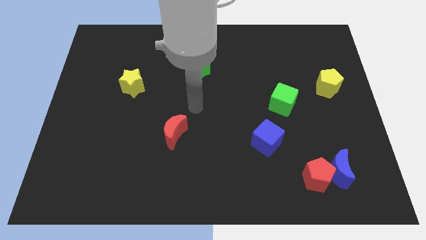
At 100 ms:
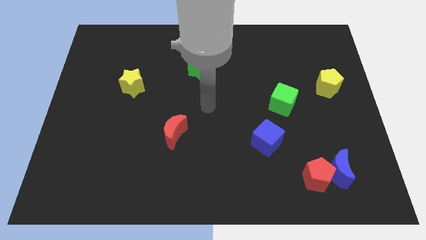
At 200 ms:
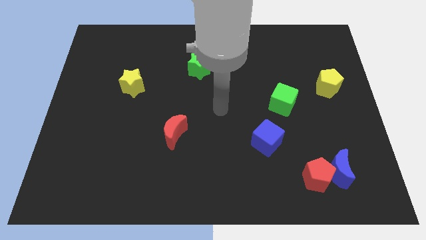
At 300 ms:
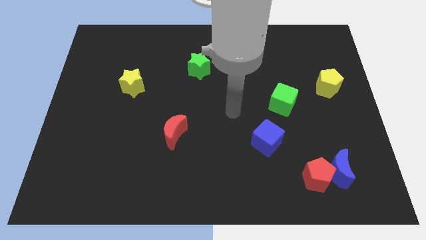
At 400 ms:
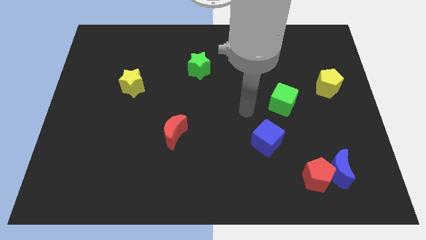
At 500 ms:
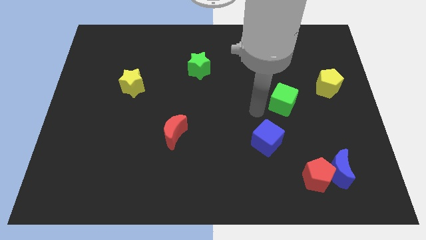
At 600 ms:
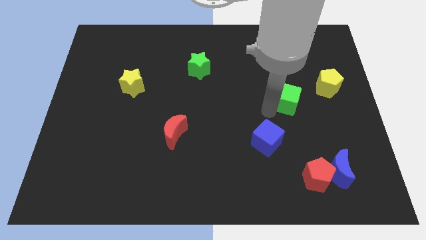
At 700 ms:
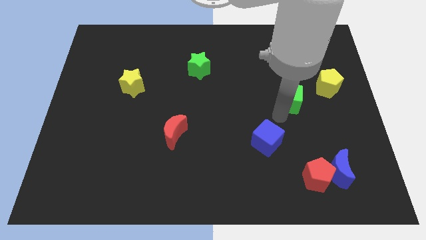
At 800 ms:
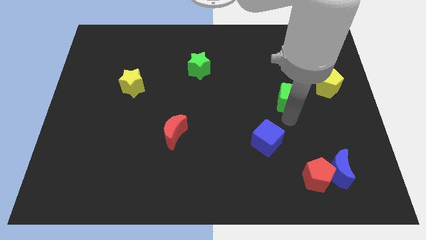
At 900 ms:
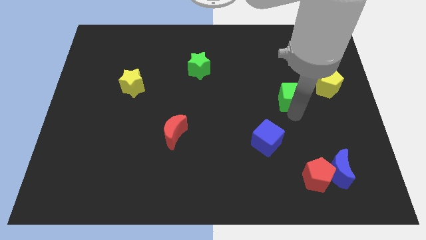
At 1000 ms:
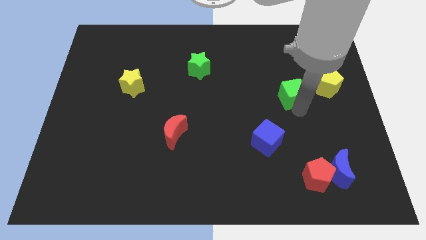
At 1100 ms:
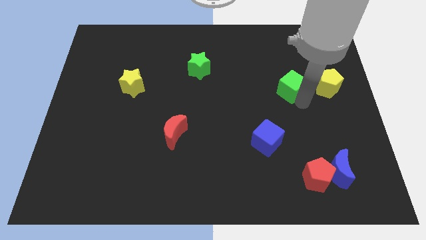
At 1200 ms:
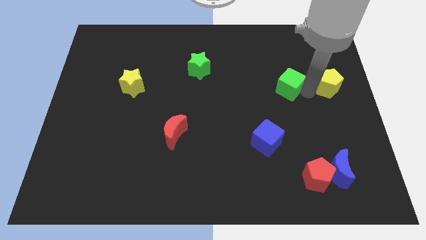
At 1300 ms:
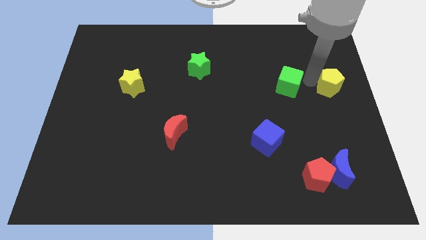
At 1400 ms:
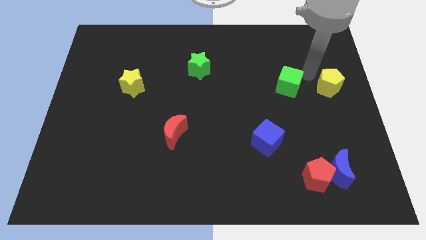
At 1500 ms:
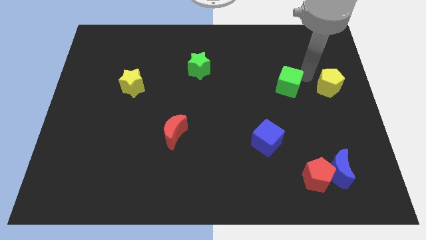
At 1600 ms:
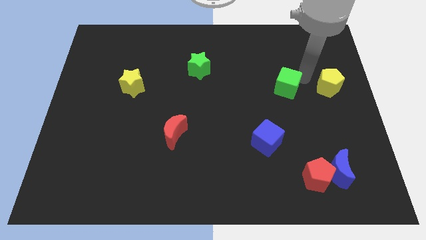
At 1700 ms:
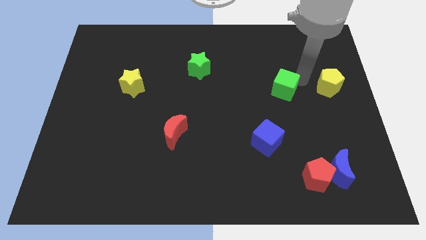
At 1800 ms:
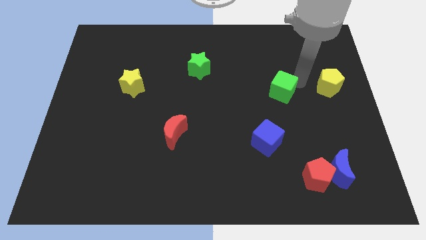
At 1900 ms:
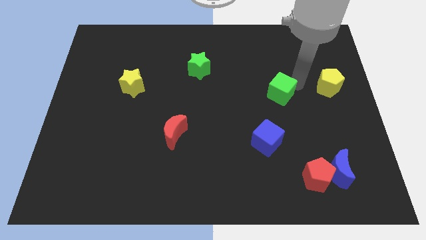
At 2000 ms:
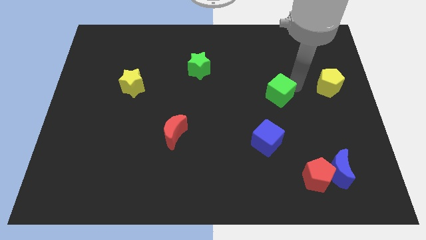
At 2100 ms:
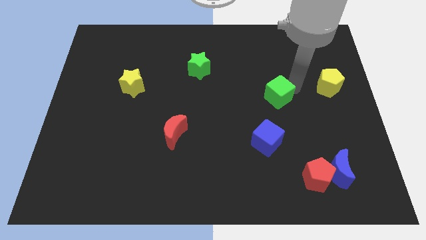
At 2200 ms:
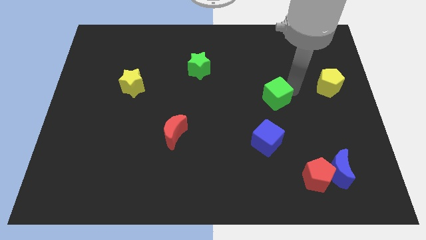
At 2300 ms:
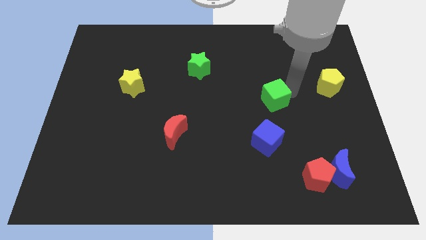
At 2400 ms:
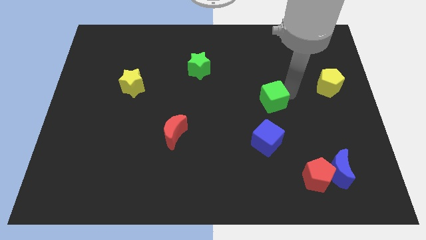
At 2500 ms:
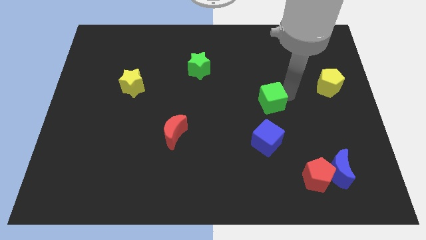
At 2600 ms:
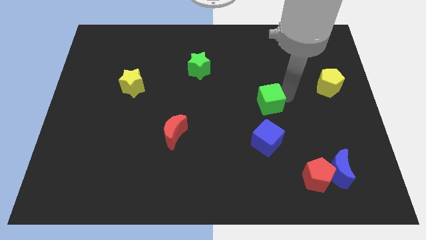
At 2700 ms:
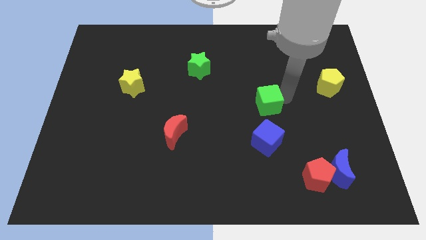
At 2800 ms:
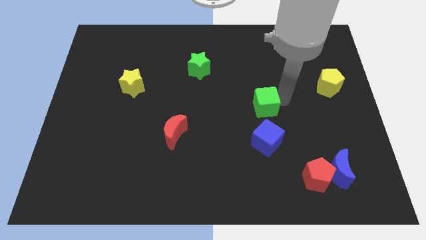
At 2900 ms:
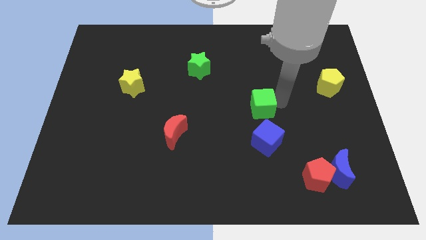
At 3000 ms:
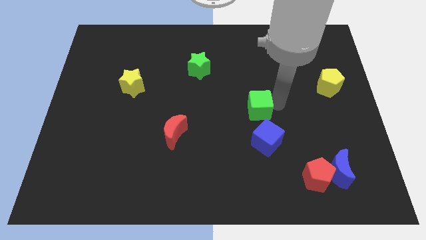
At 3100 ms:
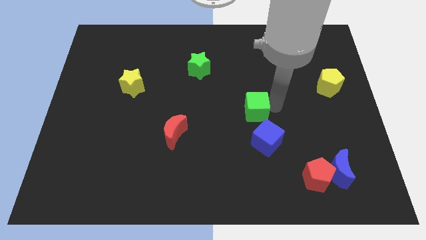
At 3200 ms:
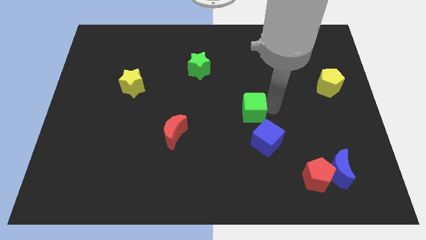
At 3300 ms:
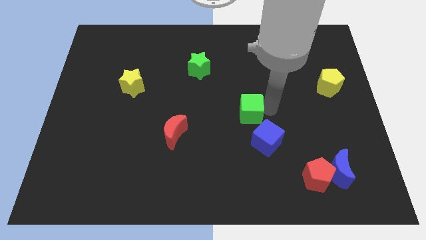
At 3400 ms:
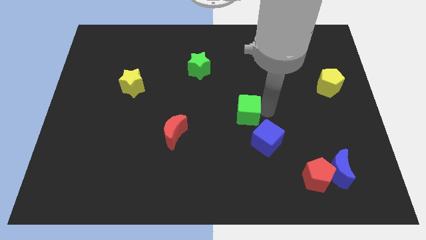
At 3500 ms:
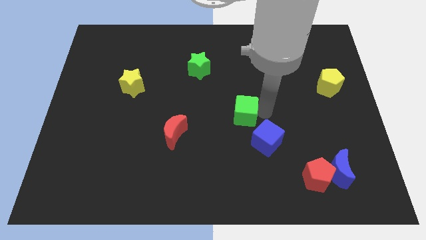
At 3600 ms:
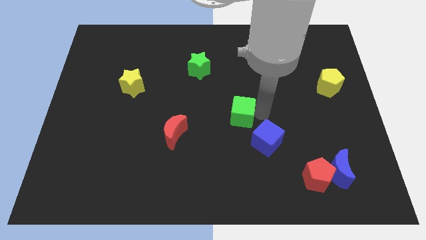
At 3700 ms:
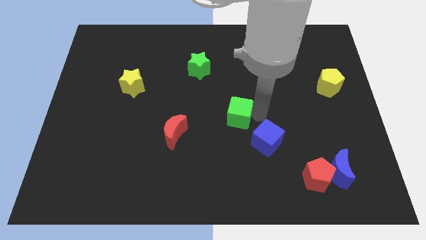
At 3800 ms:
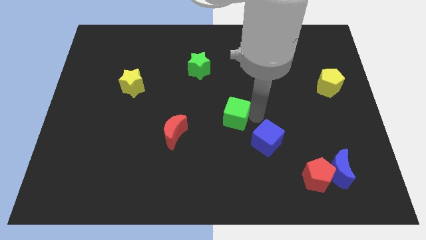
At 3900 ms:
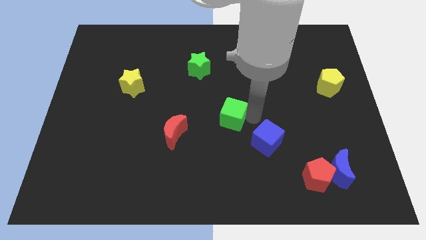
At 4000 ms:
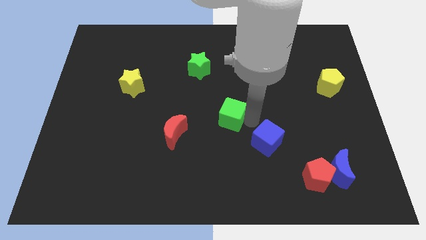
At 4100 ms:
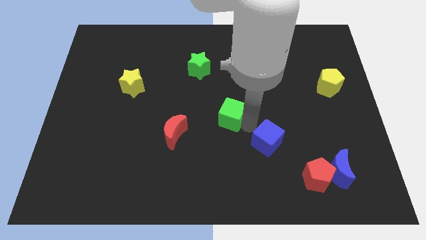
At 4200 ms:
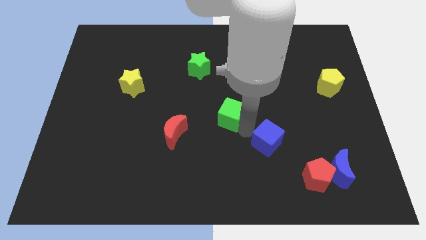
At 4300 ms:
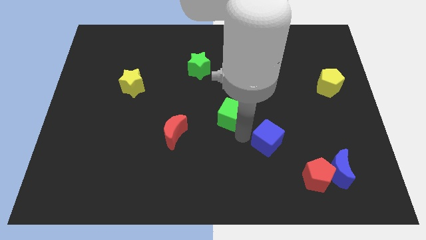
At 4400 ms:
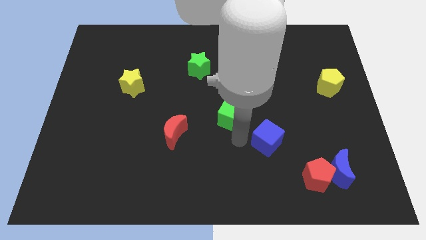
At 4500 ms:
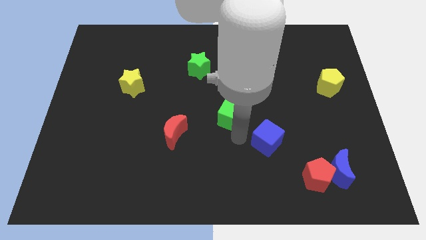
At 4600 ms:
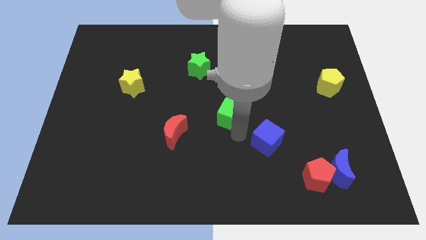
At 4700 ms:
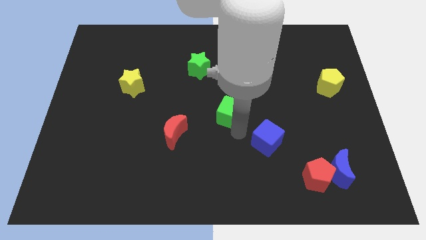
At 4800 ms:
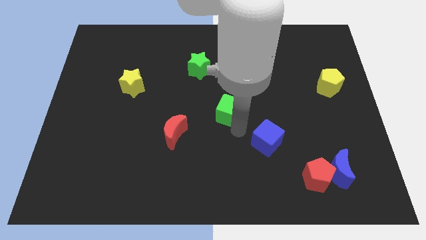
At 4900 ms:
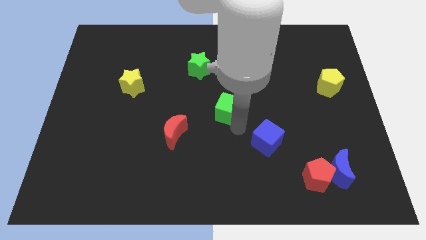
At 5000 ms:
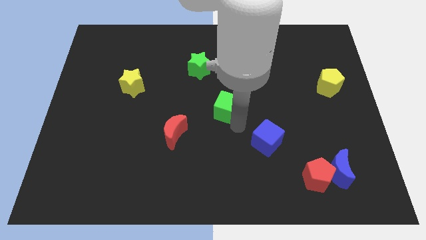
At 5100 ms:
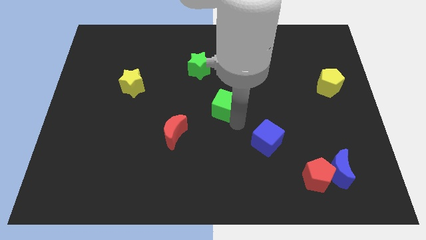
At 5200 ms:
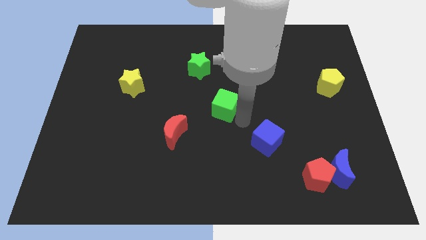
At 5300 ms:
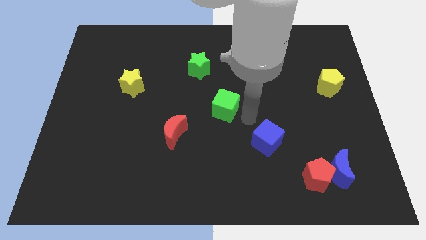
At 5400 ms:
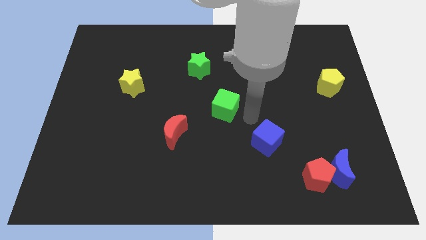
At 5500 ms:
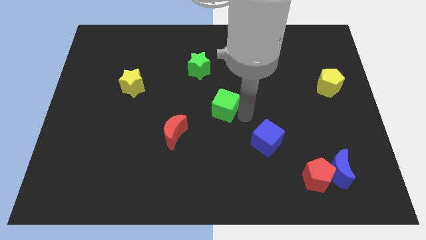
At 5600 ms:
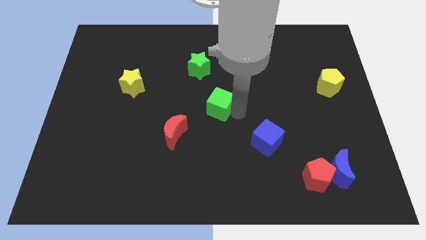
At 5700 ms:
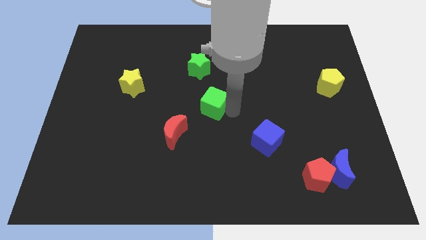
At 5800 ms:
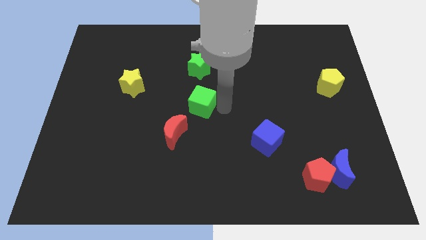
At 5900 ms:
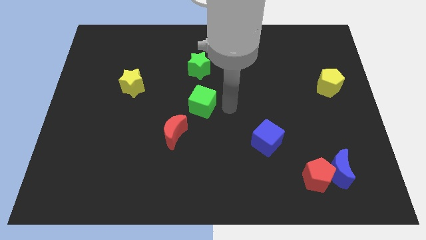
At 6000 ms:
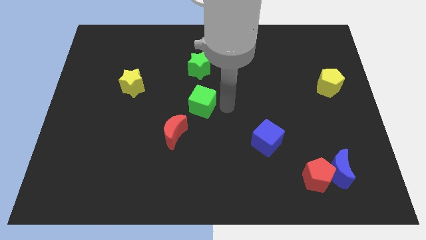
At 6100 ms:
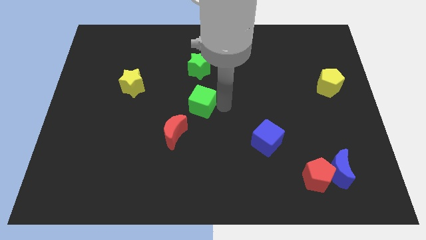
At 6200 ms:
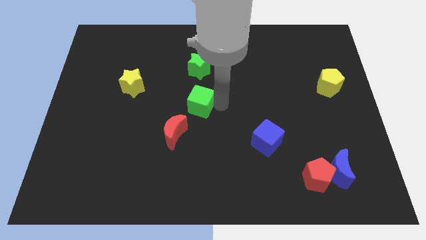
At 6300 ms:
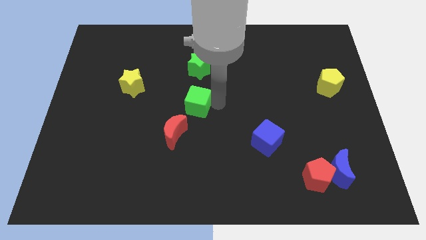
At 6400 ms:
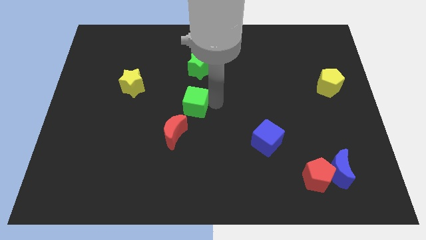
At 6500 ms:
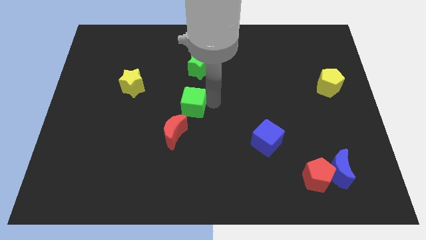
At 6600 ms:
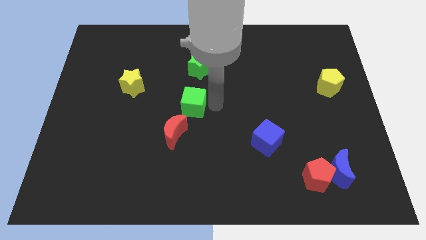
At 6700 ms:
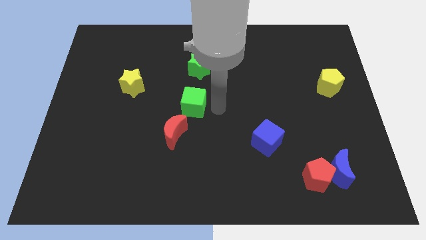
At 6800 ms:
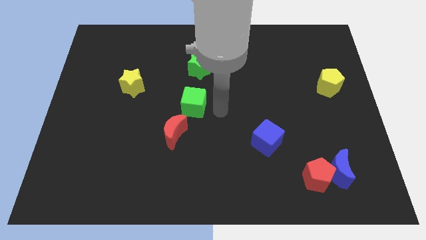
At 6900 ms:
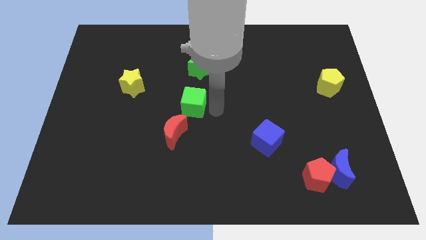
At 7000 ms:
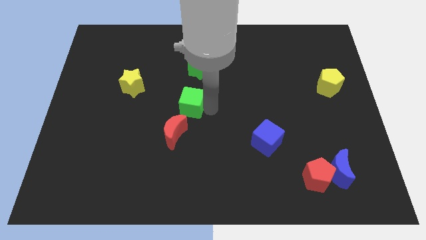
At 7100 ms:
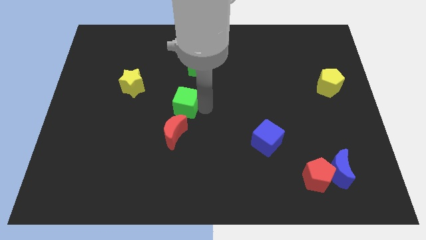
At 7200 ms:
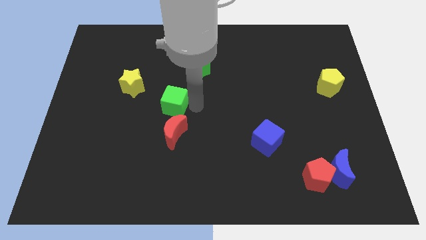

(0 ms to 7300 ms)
move the green cube to the bottom right side of the yellow star
